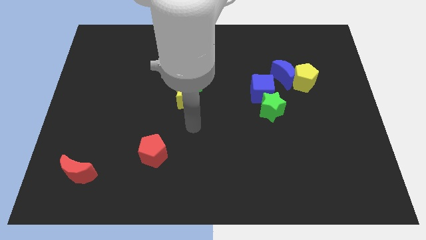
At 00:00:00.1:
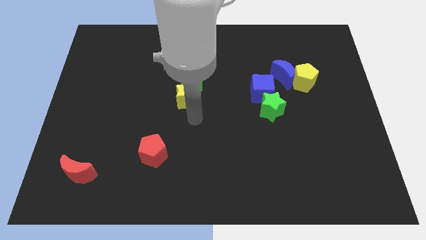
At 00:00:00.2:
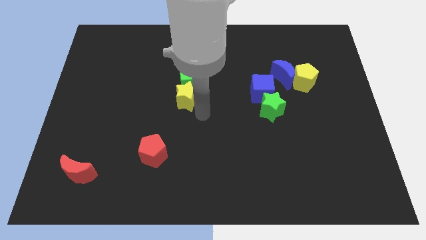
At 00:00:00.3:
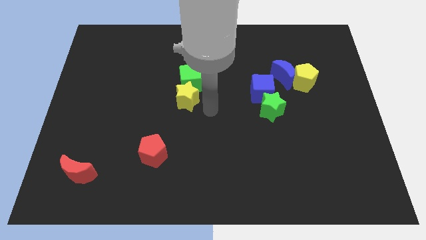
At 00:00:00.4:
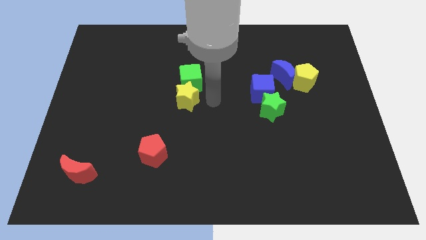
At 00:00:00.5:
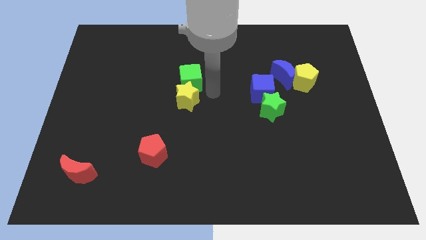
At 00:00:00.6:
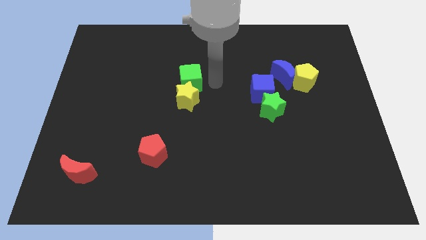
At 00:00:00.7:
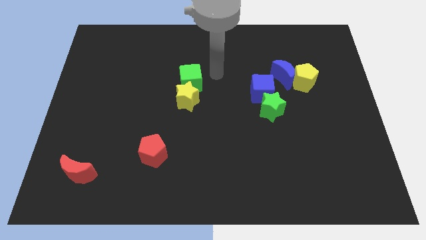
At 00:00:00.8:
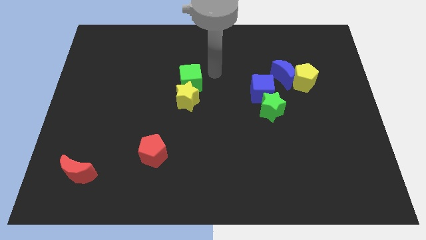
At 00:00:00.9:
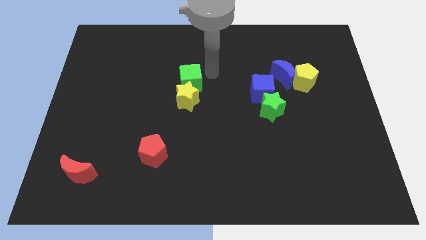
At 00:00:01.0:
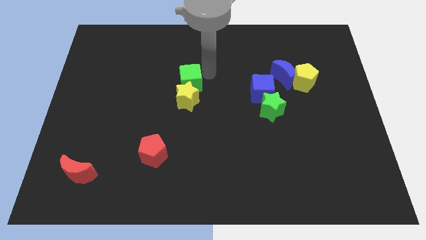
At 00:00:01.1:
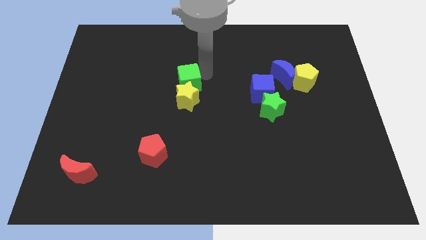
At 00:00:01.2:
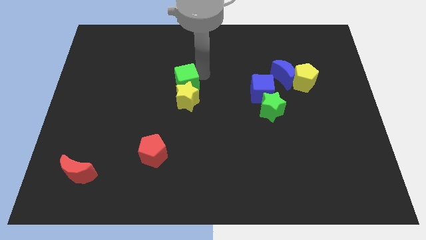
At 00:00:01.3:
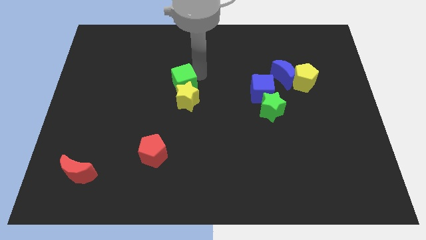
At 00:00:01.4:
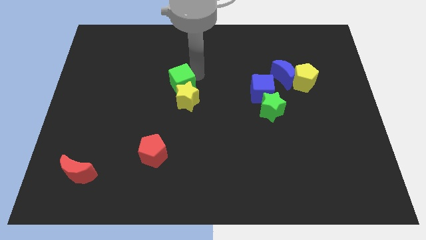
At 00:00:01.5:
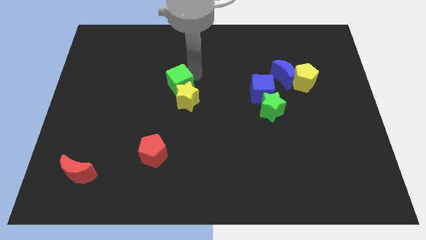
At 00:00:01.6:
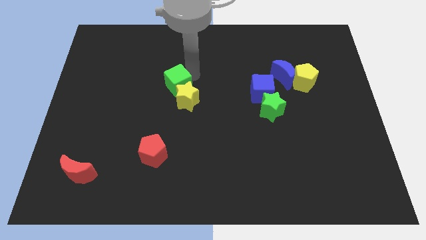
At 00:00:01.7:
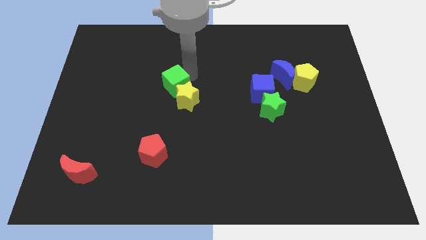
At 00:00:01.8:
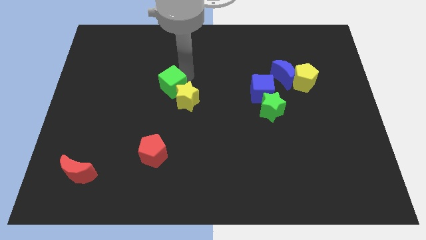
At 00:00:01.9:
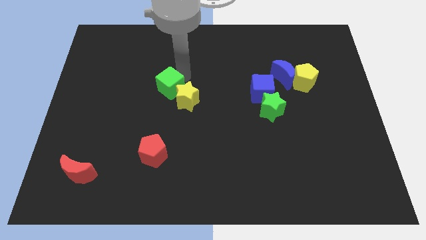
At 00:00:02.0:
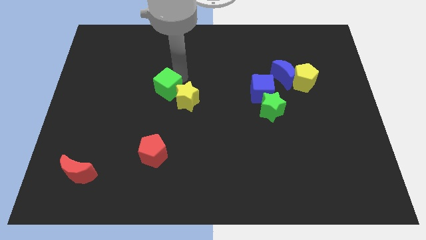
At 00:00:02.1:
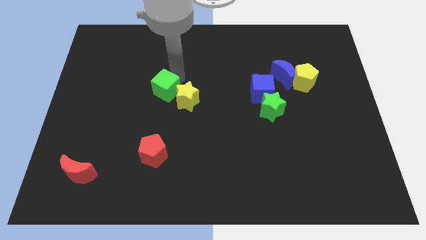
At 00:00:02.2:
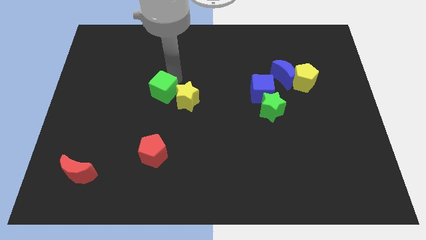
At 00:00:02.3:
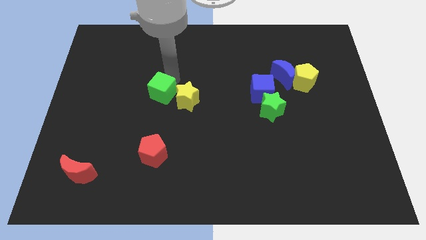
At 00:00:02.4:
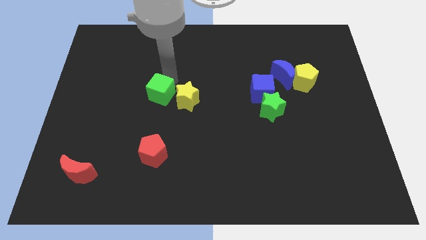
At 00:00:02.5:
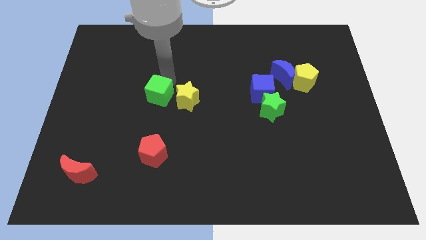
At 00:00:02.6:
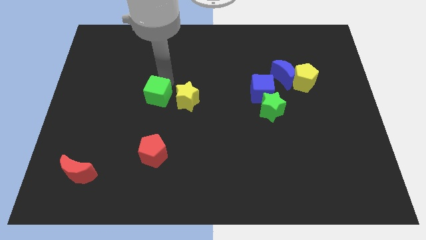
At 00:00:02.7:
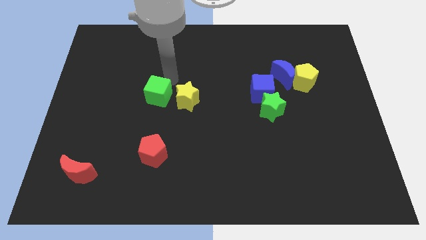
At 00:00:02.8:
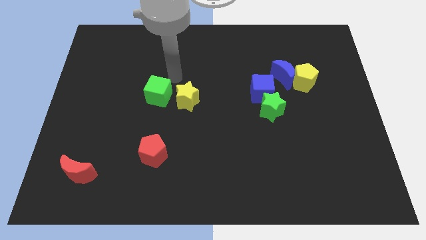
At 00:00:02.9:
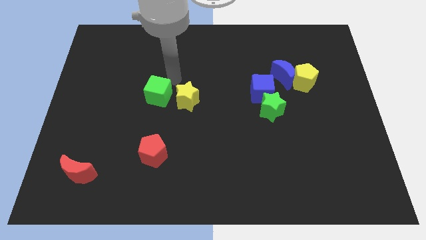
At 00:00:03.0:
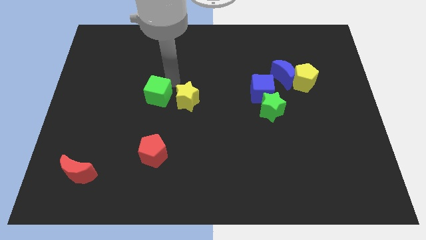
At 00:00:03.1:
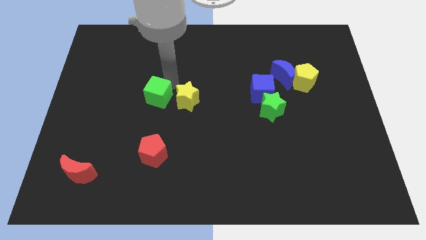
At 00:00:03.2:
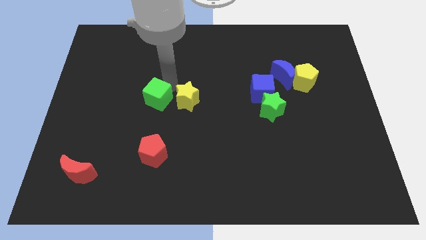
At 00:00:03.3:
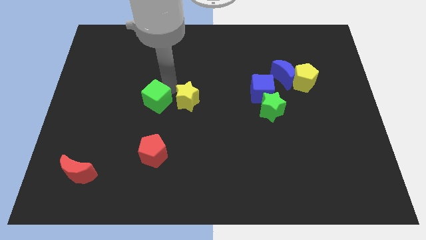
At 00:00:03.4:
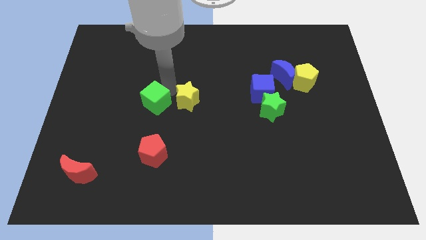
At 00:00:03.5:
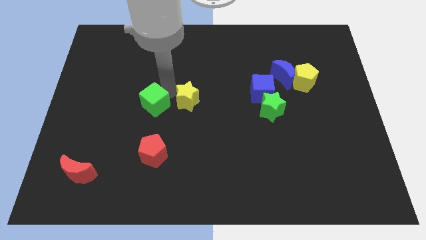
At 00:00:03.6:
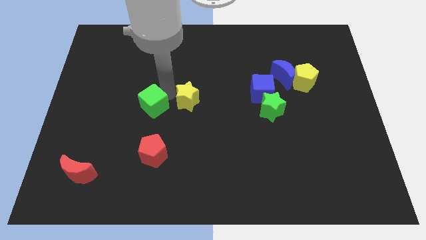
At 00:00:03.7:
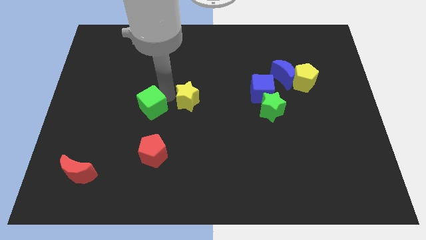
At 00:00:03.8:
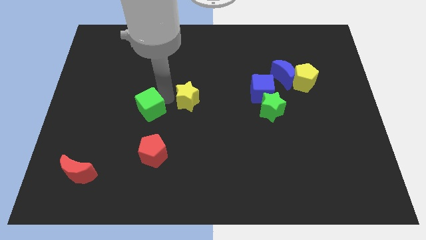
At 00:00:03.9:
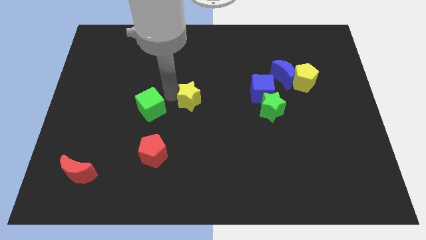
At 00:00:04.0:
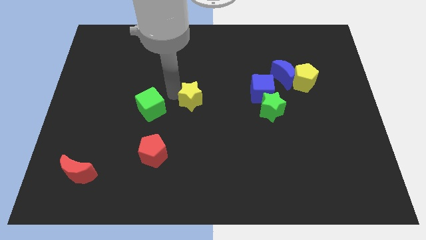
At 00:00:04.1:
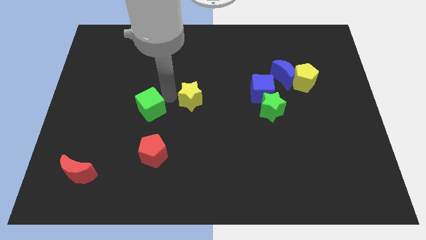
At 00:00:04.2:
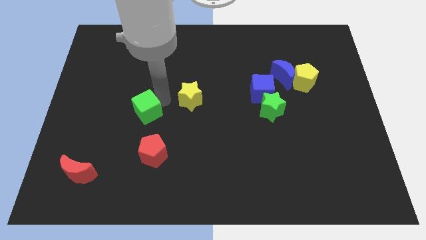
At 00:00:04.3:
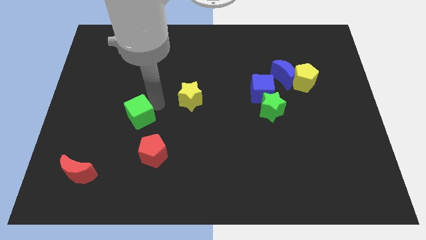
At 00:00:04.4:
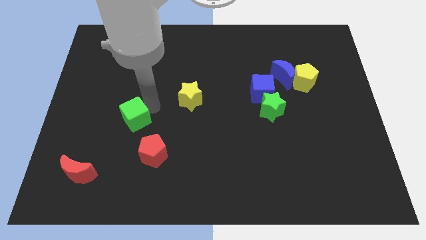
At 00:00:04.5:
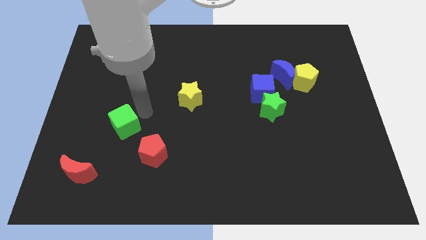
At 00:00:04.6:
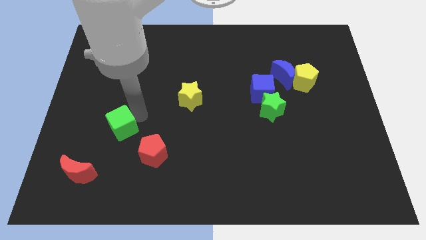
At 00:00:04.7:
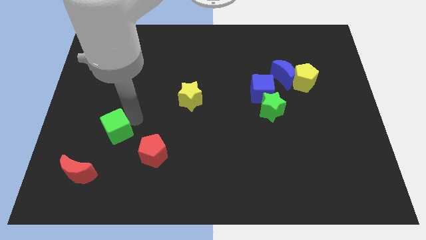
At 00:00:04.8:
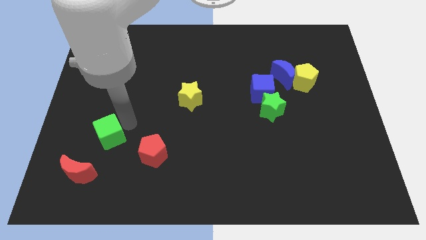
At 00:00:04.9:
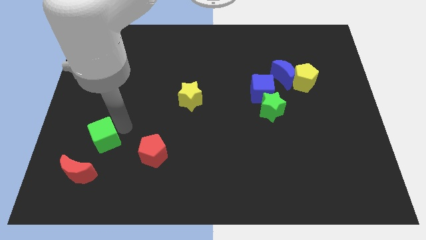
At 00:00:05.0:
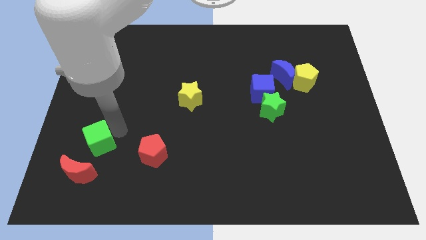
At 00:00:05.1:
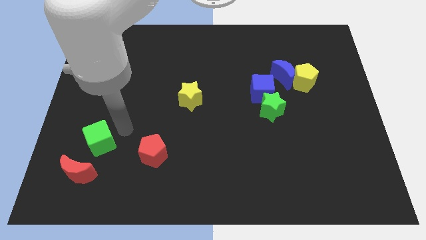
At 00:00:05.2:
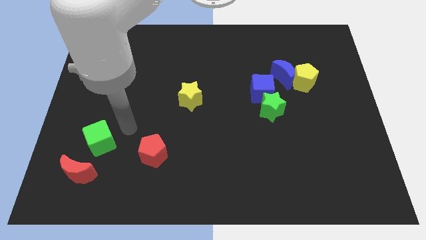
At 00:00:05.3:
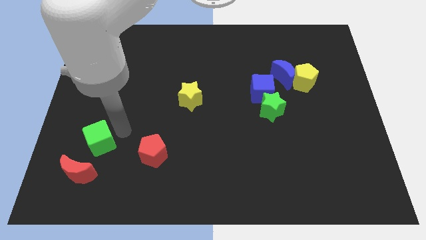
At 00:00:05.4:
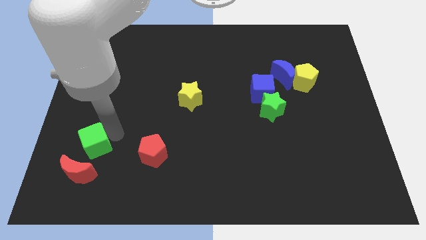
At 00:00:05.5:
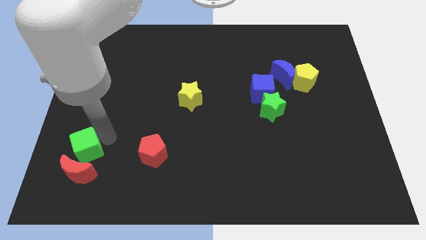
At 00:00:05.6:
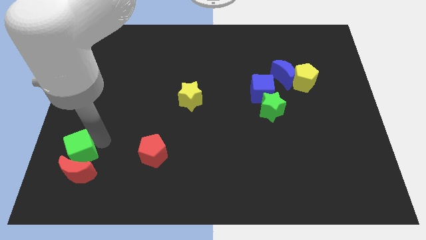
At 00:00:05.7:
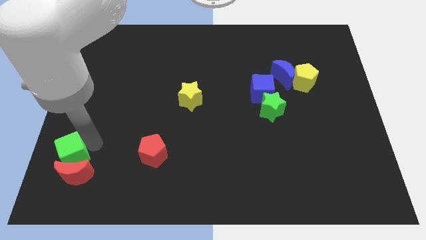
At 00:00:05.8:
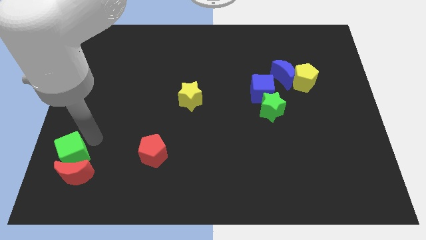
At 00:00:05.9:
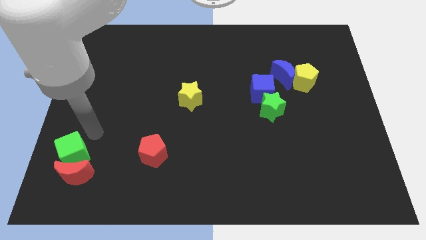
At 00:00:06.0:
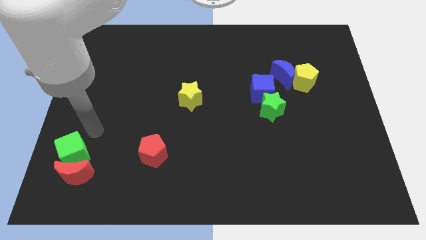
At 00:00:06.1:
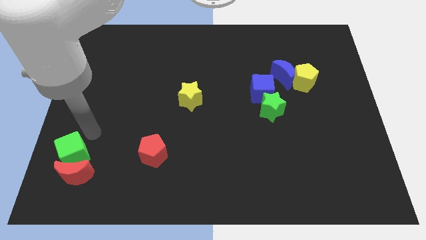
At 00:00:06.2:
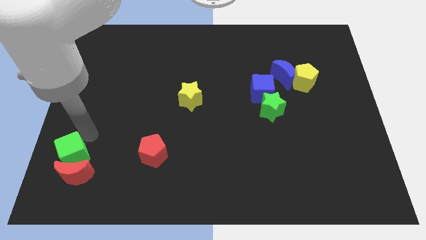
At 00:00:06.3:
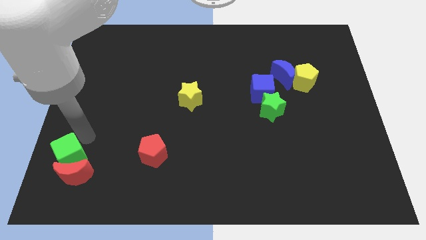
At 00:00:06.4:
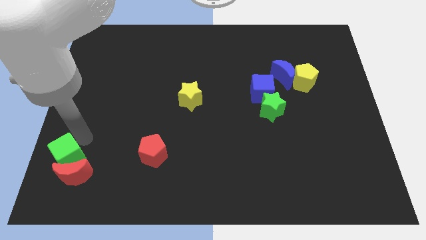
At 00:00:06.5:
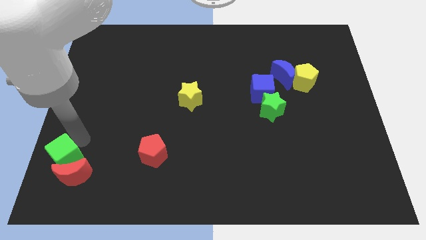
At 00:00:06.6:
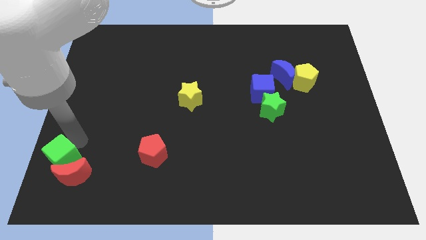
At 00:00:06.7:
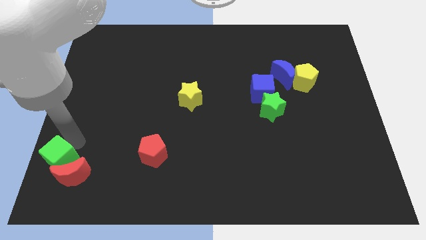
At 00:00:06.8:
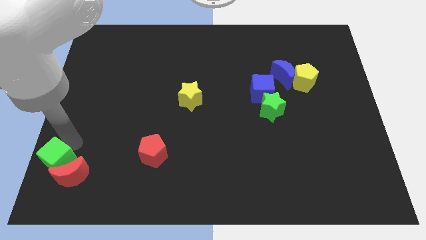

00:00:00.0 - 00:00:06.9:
put the green cube to the bottom left of the board
